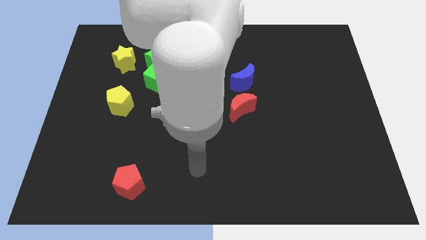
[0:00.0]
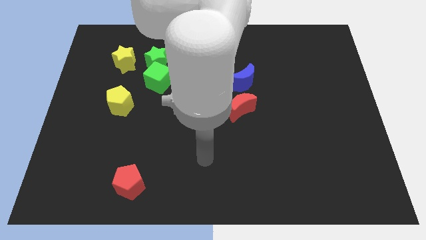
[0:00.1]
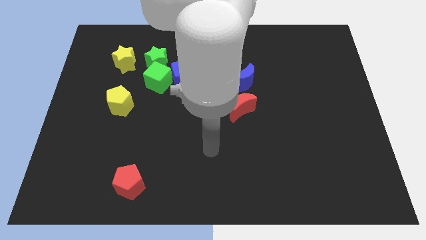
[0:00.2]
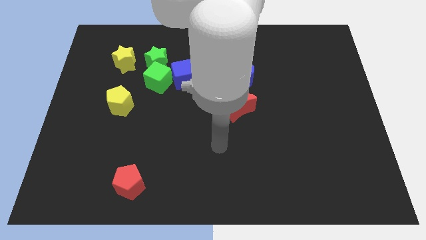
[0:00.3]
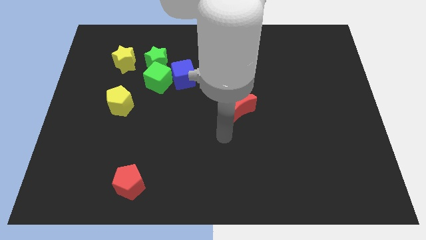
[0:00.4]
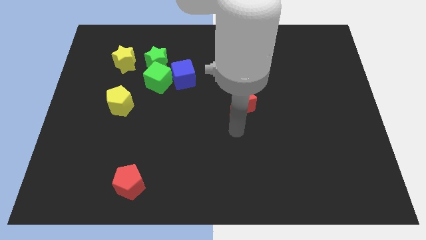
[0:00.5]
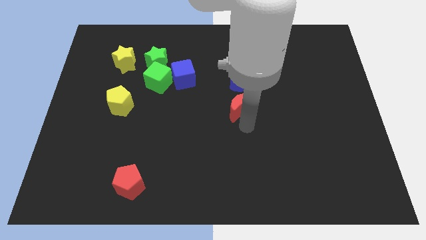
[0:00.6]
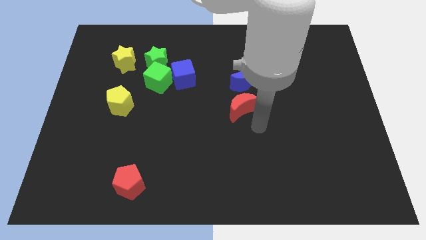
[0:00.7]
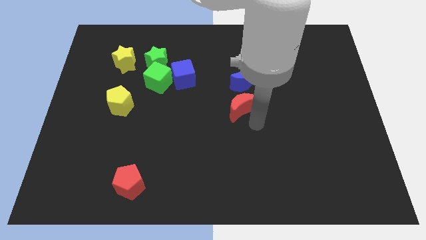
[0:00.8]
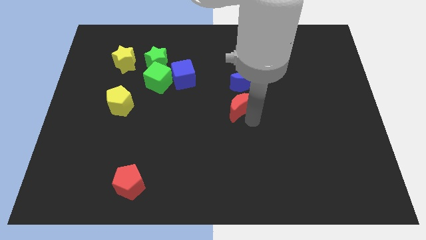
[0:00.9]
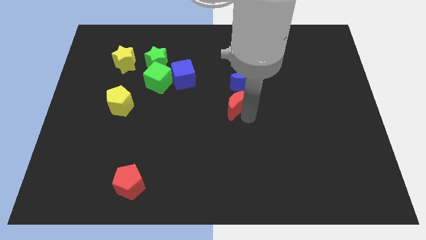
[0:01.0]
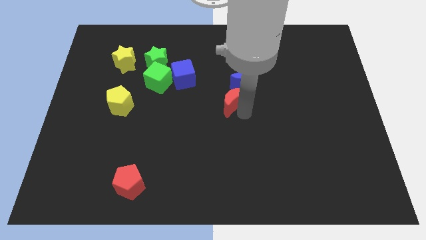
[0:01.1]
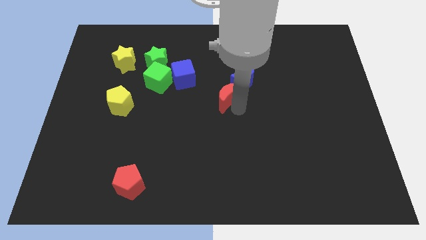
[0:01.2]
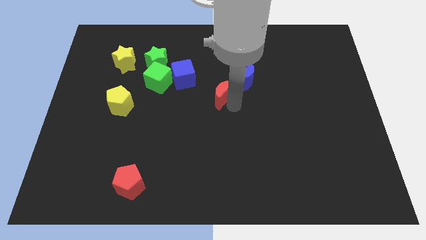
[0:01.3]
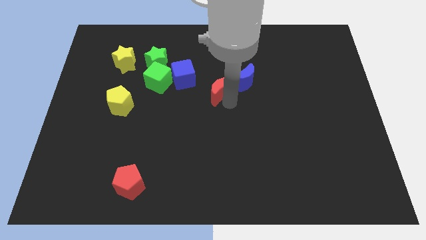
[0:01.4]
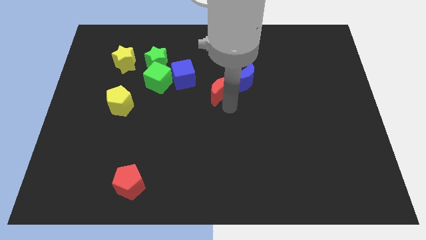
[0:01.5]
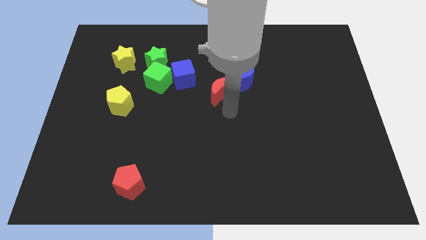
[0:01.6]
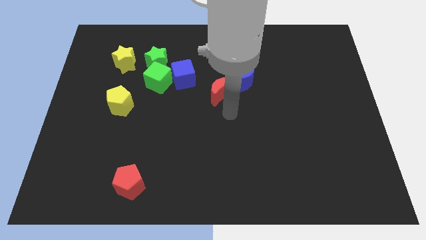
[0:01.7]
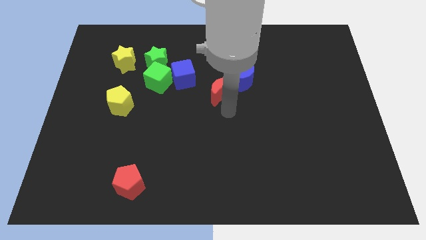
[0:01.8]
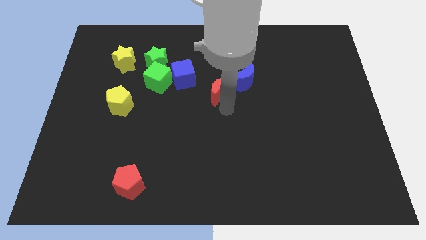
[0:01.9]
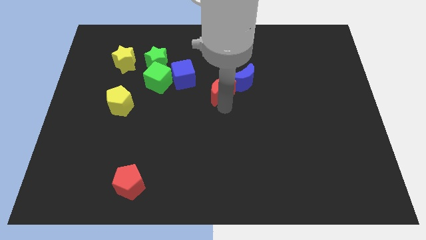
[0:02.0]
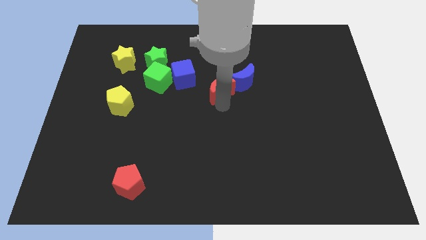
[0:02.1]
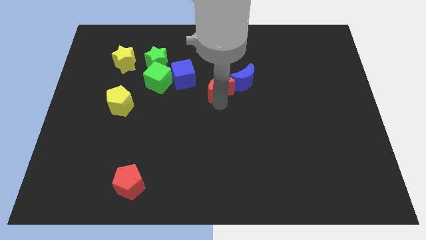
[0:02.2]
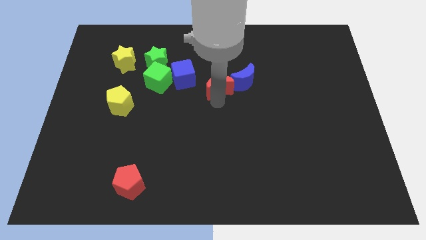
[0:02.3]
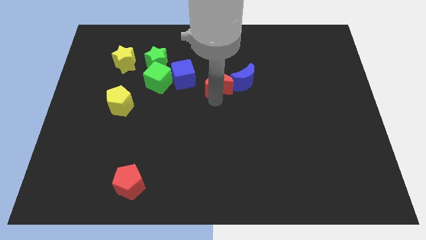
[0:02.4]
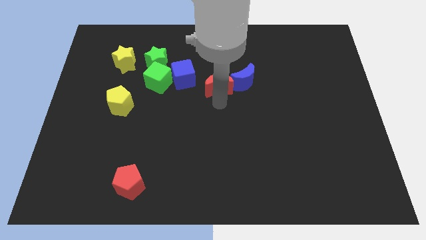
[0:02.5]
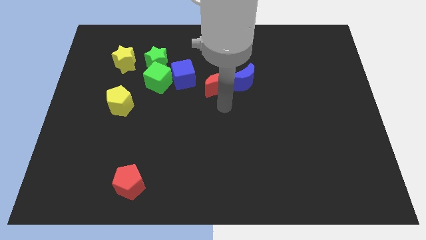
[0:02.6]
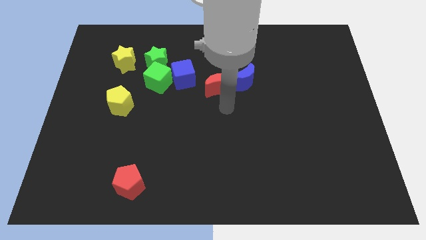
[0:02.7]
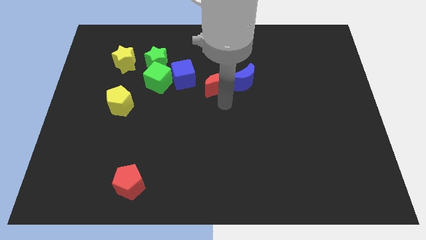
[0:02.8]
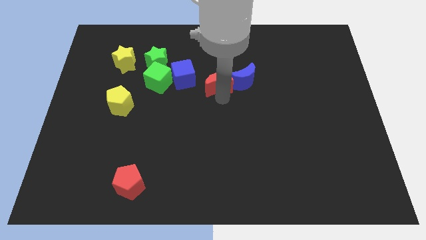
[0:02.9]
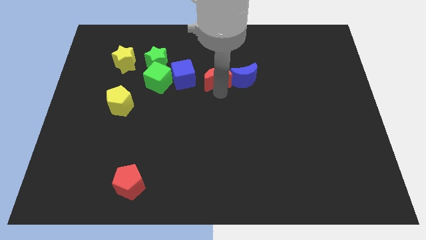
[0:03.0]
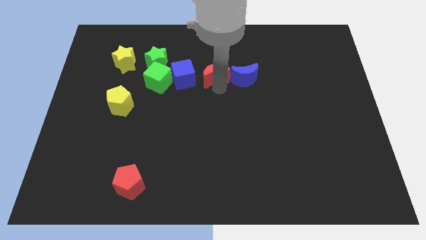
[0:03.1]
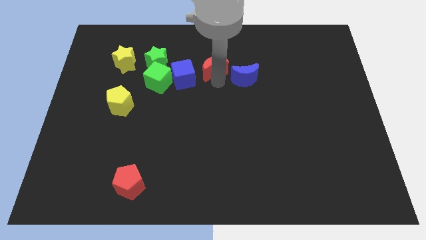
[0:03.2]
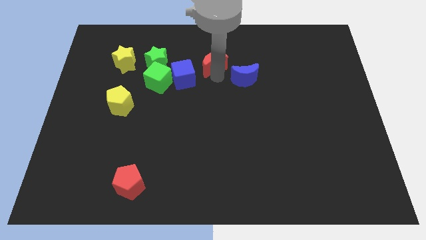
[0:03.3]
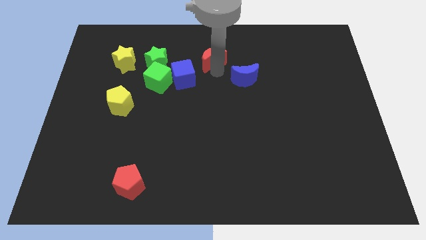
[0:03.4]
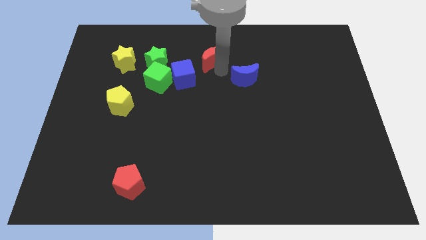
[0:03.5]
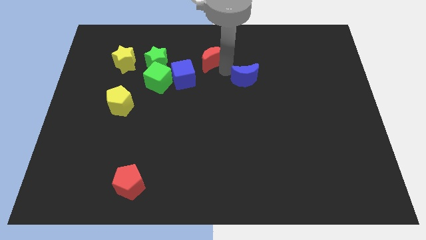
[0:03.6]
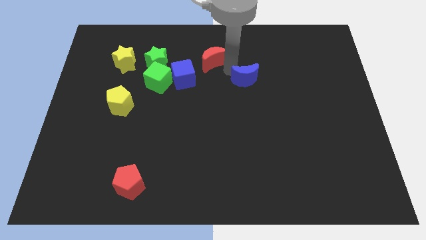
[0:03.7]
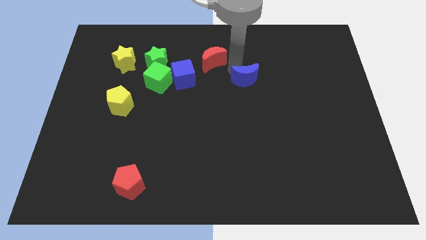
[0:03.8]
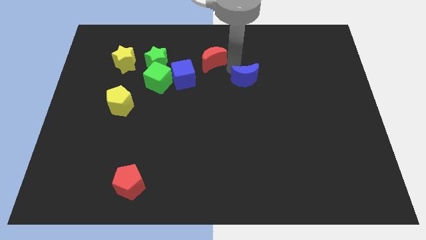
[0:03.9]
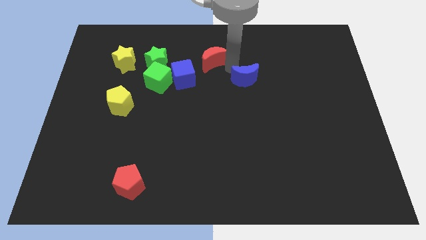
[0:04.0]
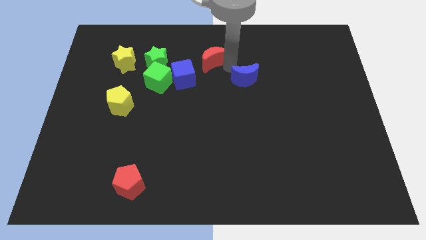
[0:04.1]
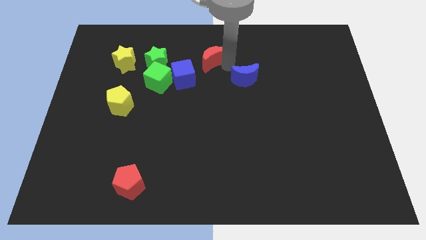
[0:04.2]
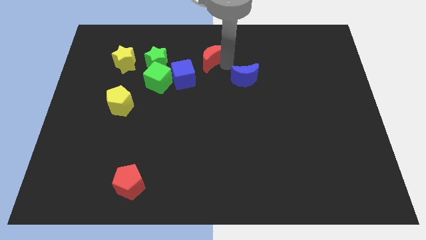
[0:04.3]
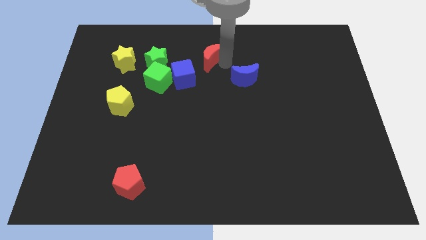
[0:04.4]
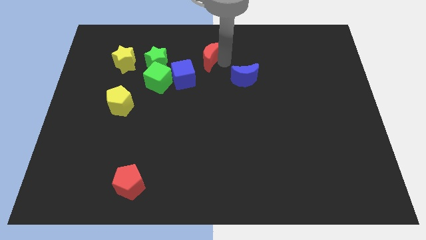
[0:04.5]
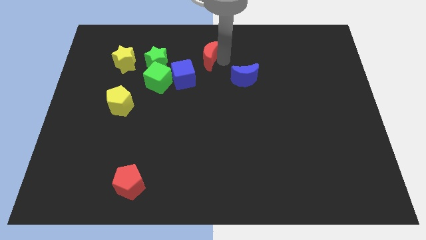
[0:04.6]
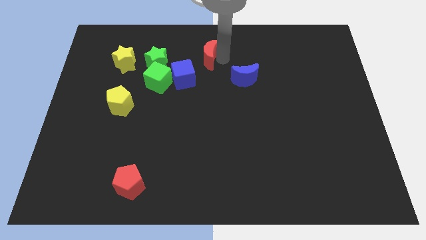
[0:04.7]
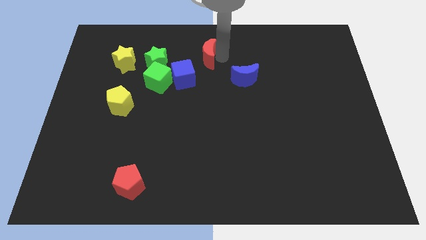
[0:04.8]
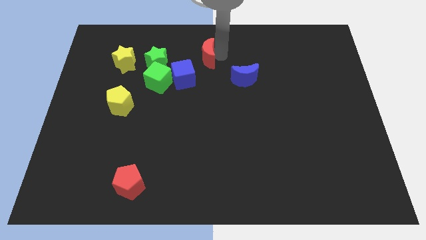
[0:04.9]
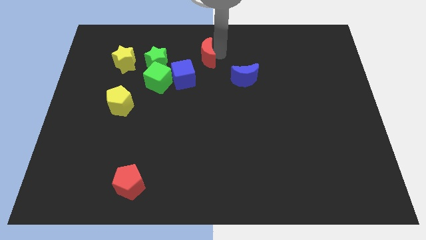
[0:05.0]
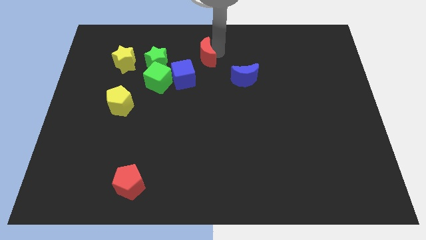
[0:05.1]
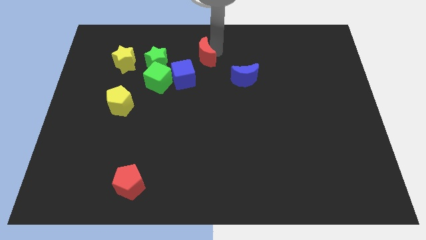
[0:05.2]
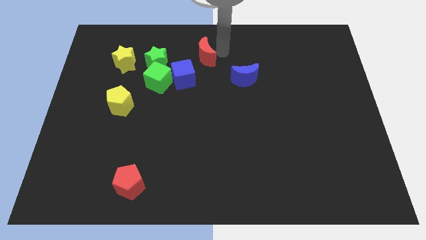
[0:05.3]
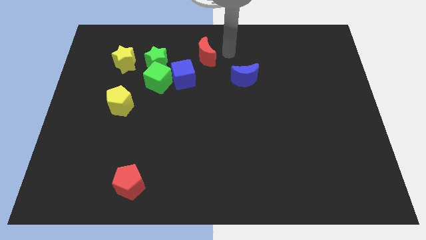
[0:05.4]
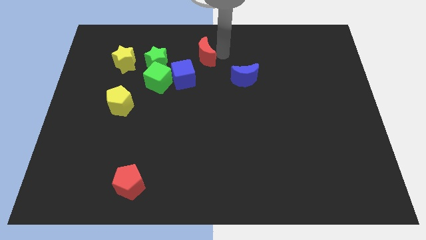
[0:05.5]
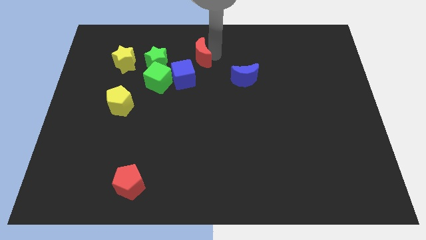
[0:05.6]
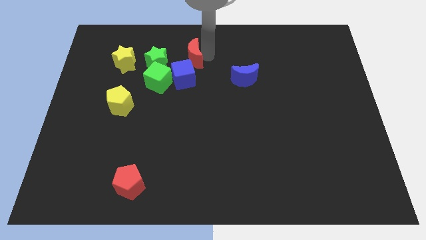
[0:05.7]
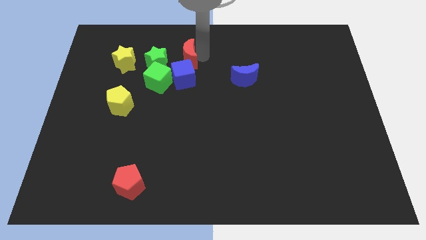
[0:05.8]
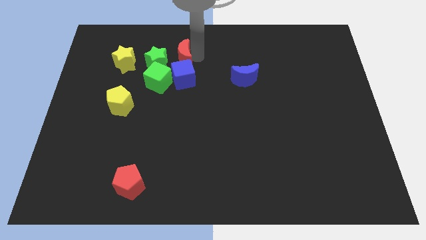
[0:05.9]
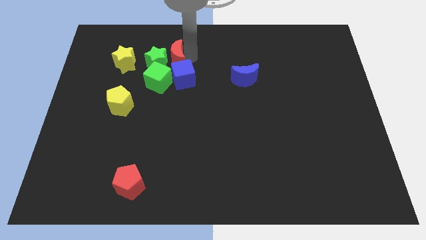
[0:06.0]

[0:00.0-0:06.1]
put the red moon close to the green star
